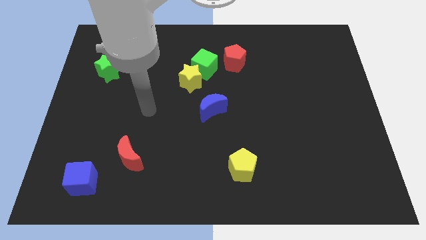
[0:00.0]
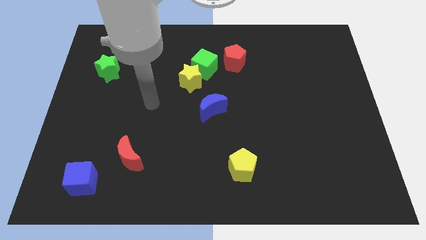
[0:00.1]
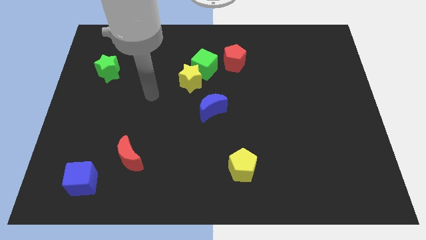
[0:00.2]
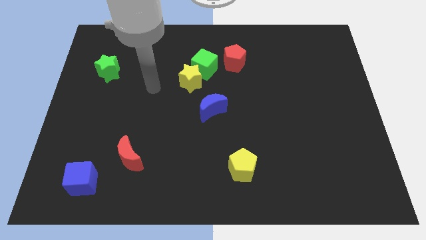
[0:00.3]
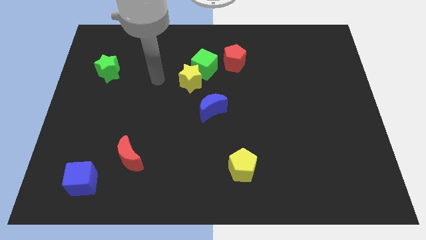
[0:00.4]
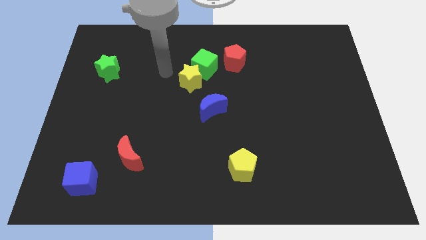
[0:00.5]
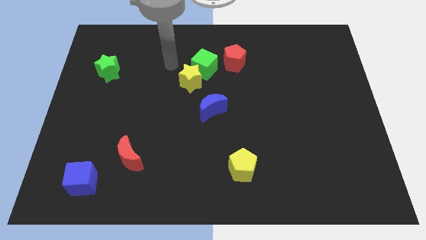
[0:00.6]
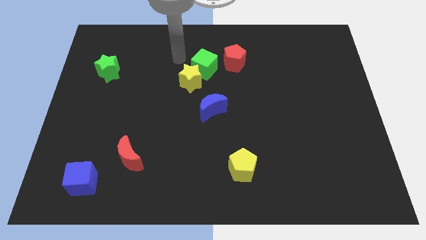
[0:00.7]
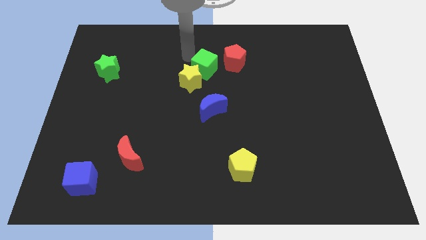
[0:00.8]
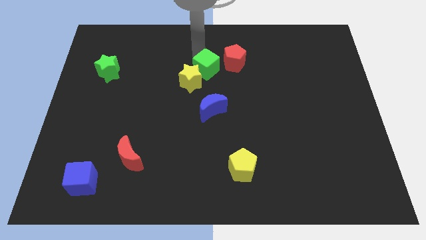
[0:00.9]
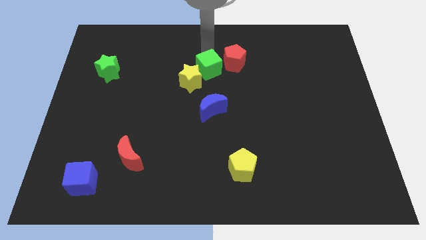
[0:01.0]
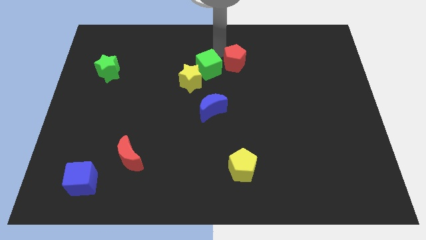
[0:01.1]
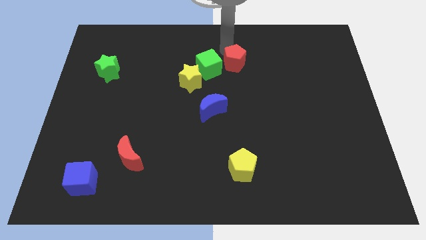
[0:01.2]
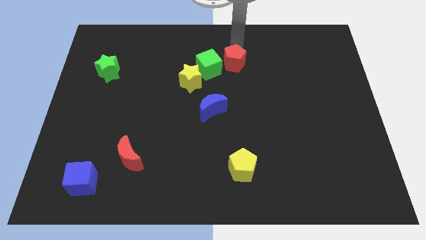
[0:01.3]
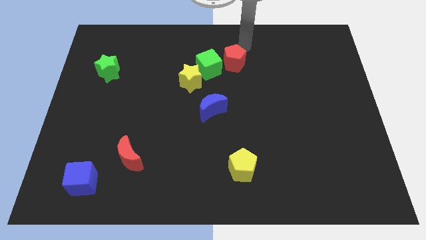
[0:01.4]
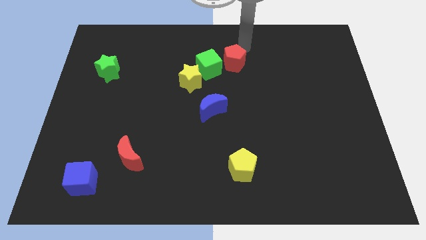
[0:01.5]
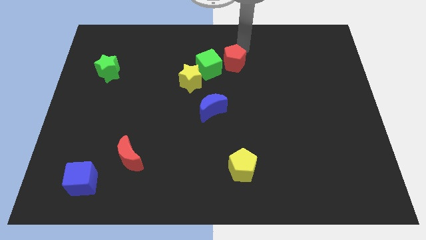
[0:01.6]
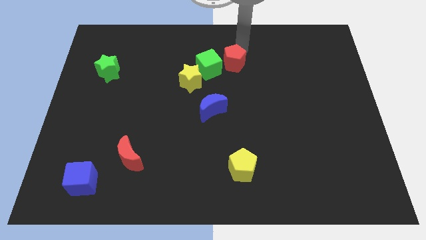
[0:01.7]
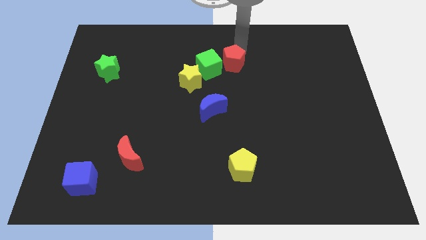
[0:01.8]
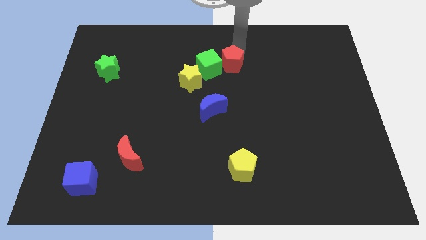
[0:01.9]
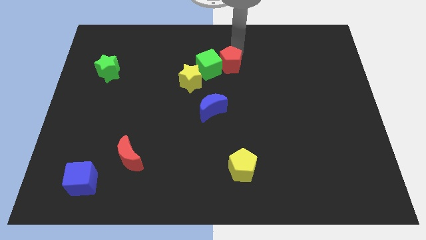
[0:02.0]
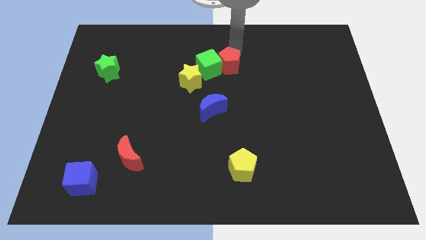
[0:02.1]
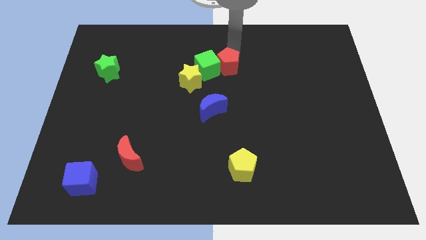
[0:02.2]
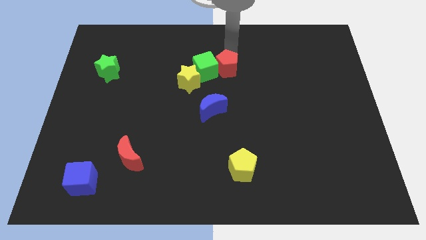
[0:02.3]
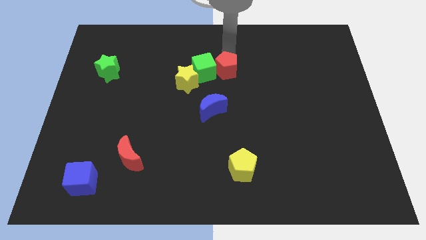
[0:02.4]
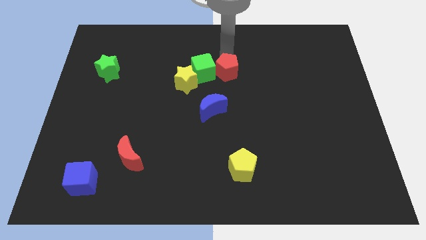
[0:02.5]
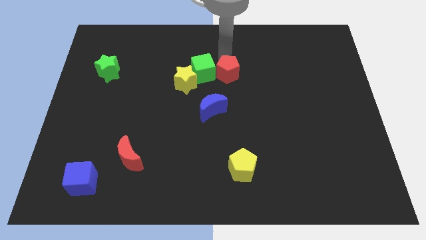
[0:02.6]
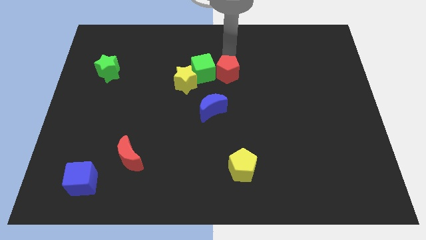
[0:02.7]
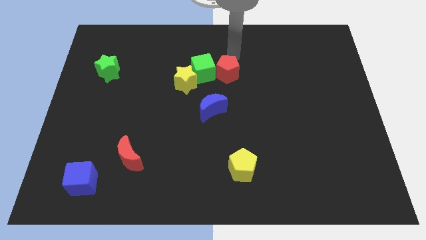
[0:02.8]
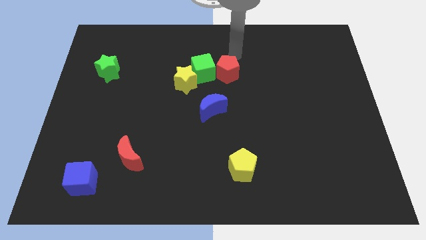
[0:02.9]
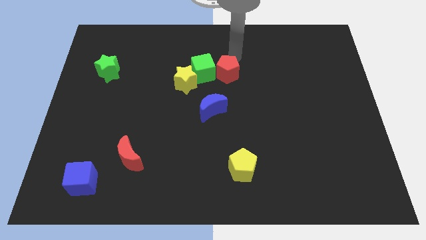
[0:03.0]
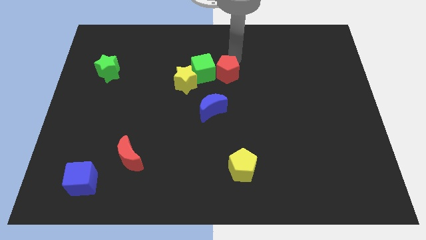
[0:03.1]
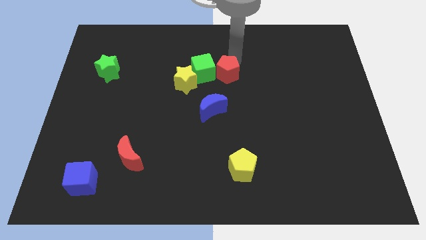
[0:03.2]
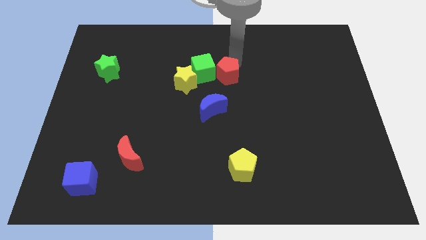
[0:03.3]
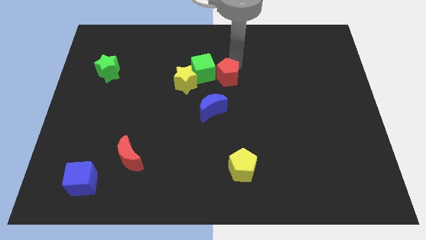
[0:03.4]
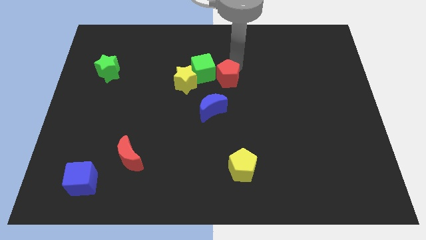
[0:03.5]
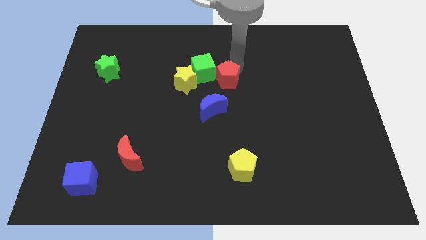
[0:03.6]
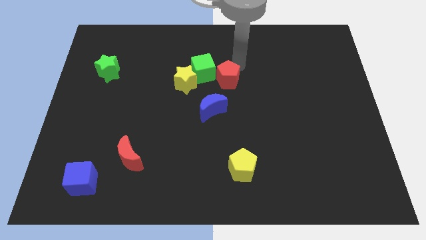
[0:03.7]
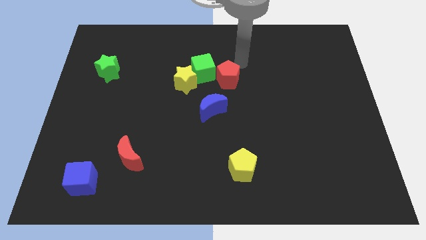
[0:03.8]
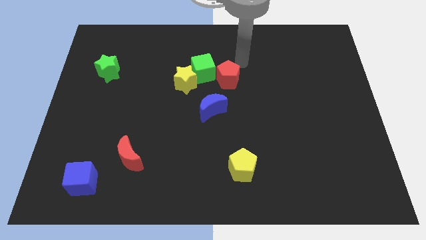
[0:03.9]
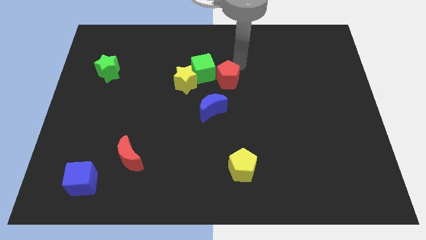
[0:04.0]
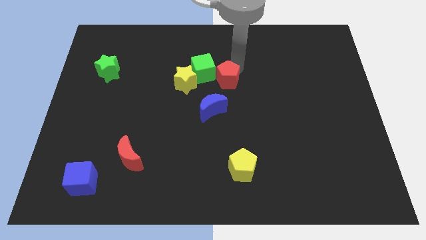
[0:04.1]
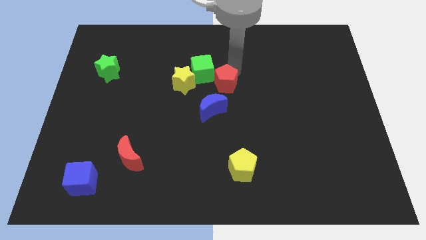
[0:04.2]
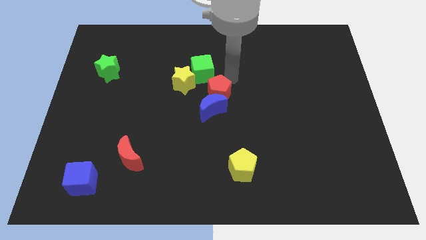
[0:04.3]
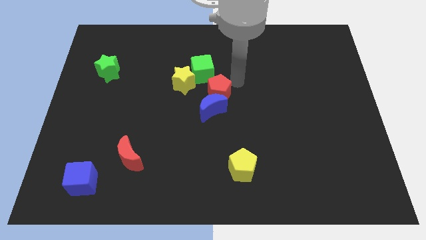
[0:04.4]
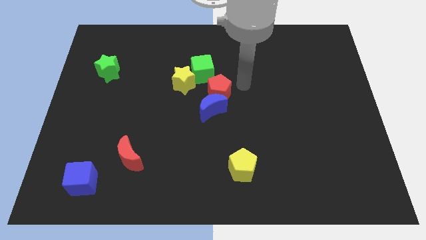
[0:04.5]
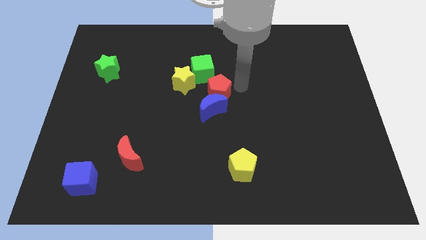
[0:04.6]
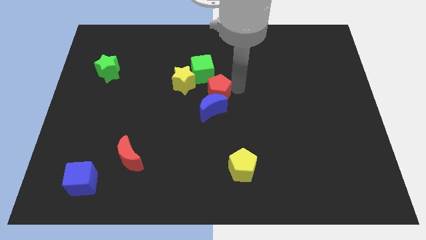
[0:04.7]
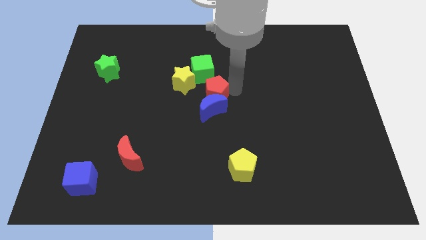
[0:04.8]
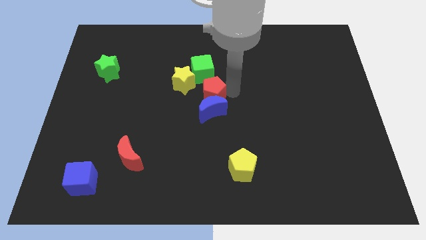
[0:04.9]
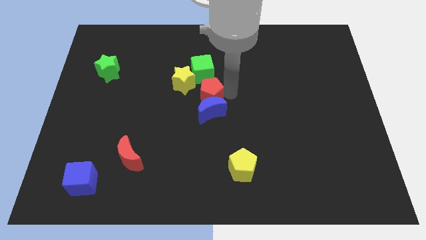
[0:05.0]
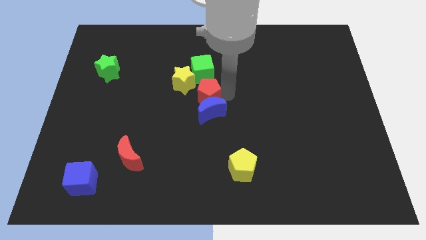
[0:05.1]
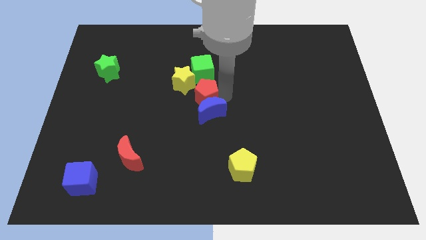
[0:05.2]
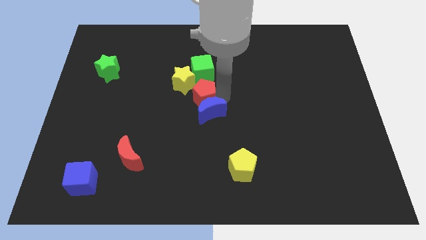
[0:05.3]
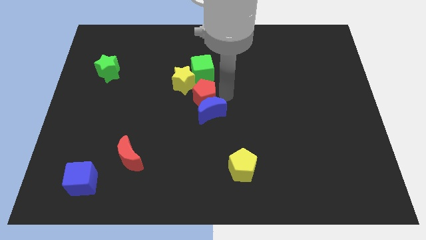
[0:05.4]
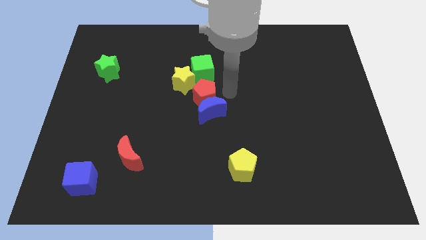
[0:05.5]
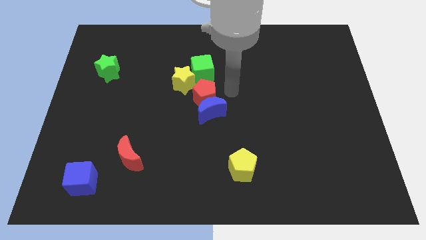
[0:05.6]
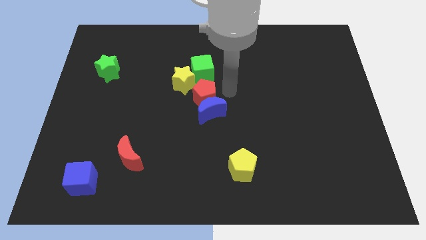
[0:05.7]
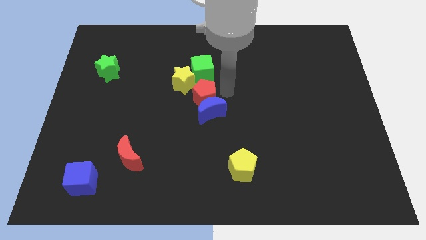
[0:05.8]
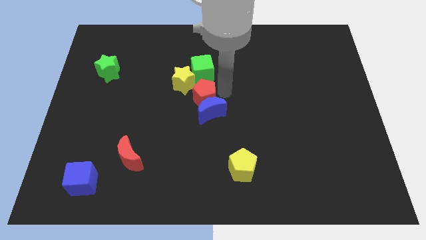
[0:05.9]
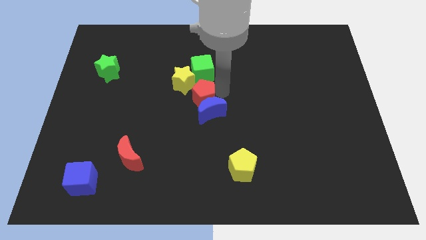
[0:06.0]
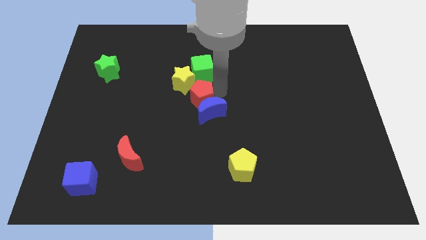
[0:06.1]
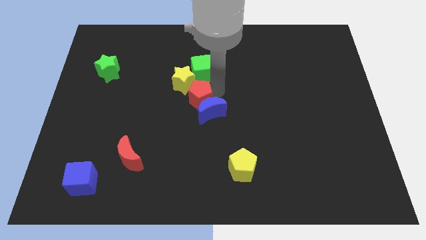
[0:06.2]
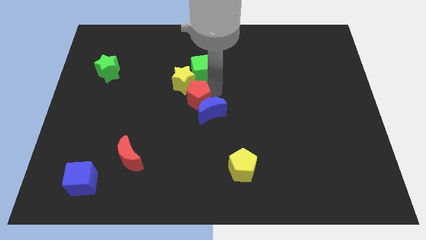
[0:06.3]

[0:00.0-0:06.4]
move the red pentagon to the left of the blue moon
